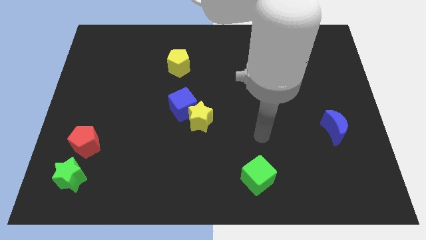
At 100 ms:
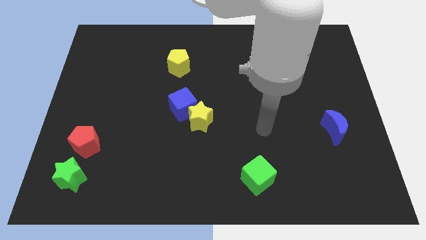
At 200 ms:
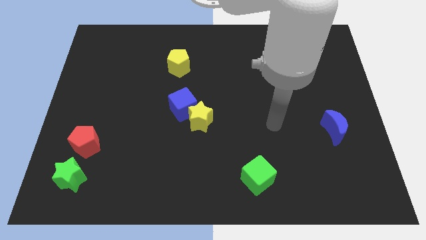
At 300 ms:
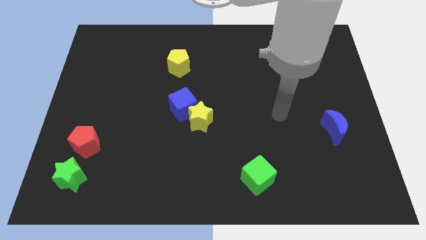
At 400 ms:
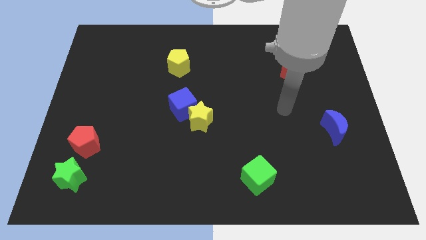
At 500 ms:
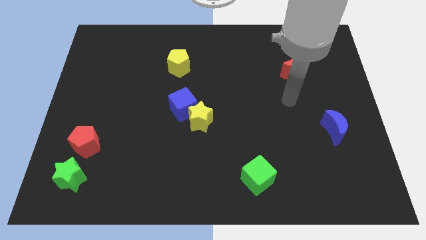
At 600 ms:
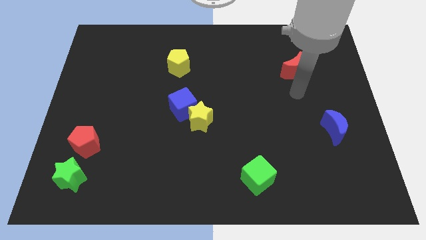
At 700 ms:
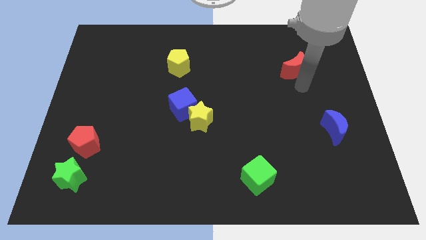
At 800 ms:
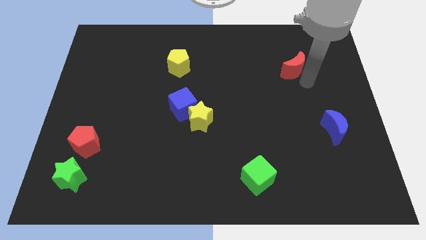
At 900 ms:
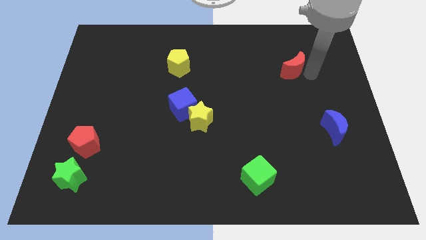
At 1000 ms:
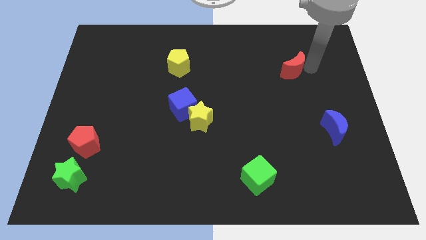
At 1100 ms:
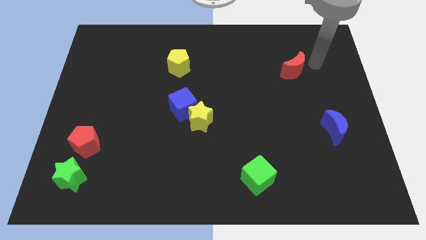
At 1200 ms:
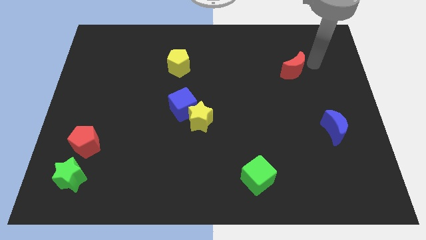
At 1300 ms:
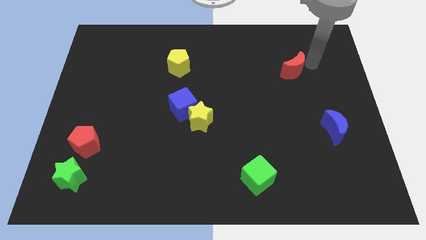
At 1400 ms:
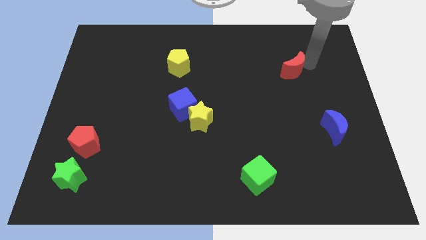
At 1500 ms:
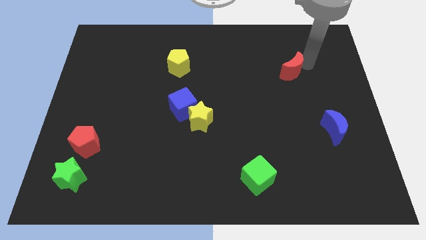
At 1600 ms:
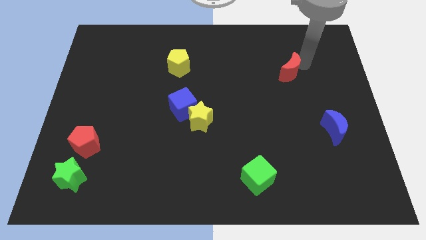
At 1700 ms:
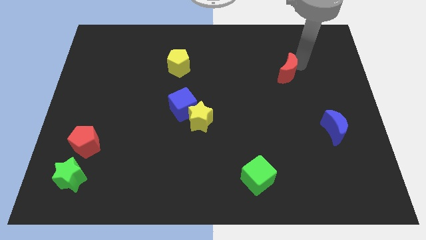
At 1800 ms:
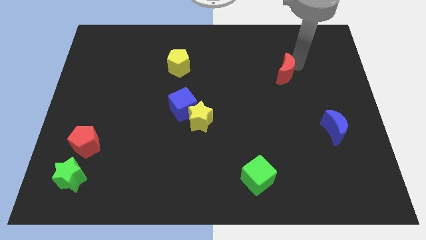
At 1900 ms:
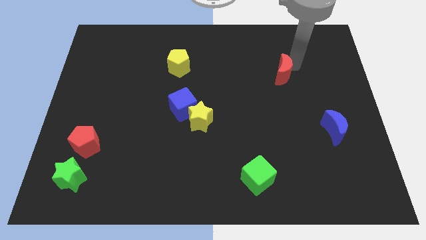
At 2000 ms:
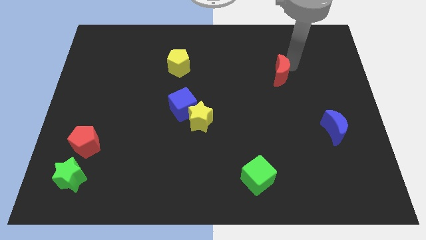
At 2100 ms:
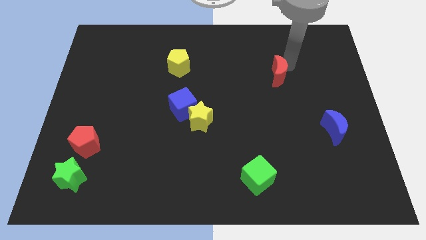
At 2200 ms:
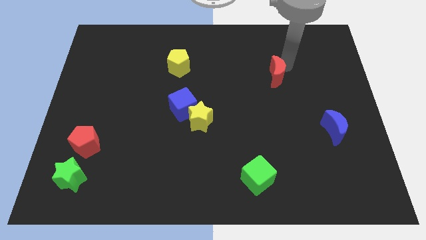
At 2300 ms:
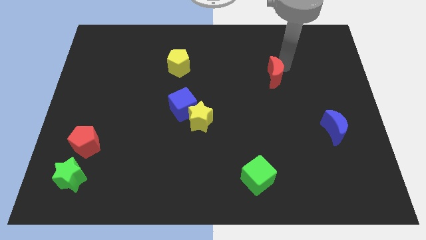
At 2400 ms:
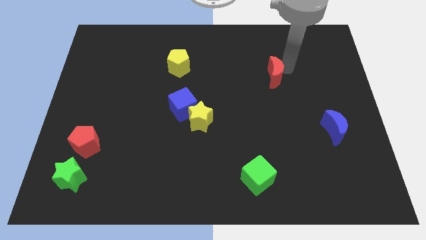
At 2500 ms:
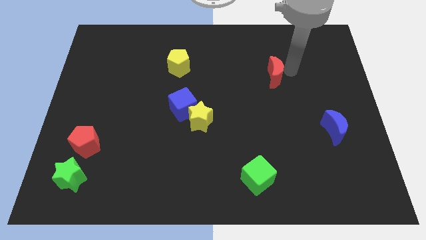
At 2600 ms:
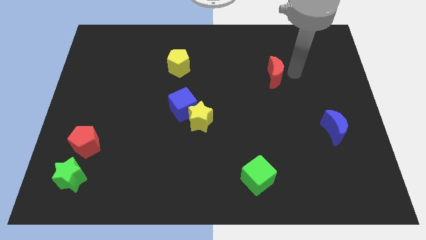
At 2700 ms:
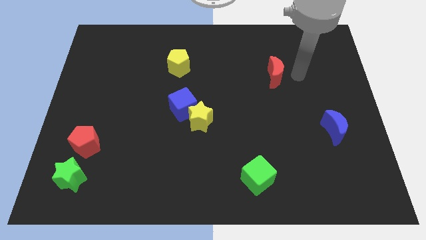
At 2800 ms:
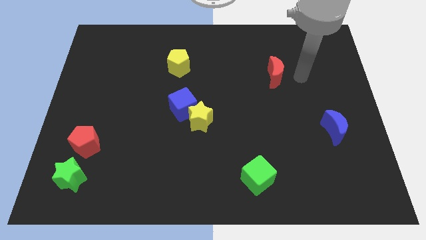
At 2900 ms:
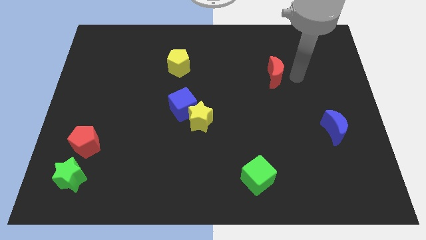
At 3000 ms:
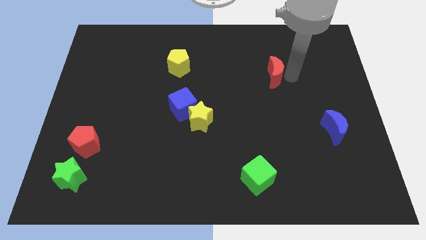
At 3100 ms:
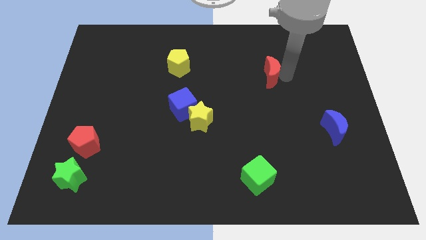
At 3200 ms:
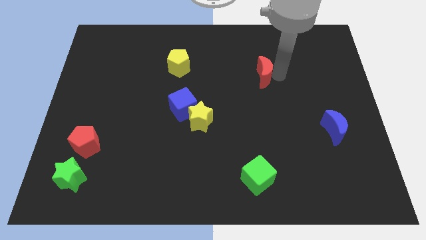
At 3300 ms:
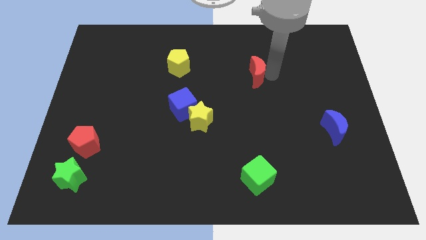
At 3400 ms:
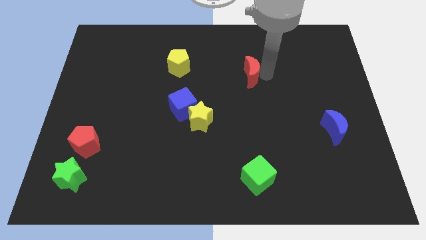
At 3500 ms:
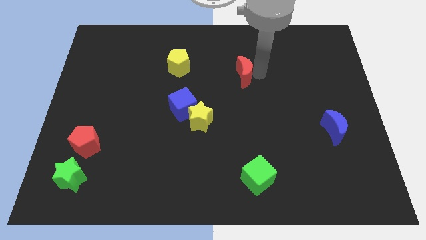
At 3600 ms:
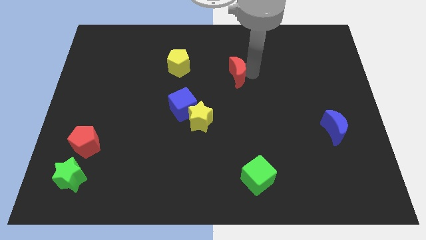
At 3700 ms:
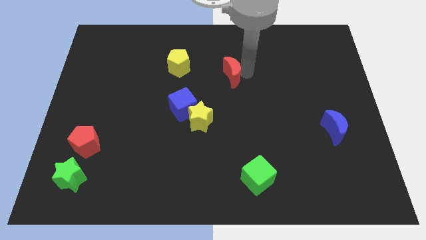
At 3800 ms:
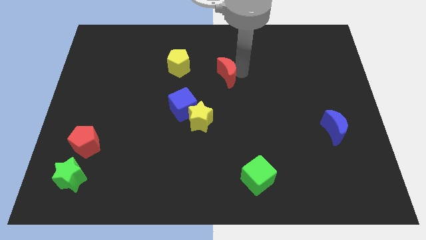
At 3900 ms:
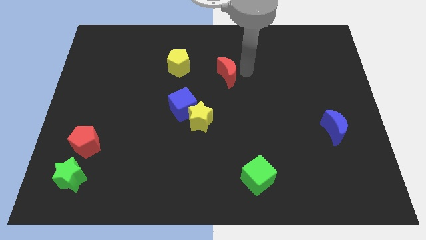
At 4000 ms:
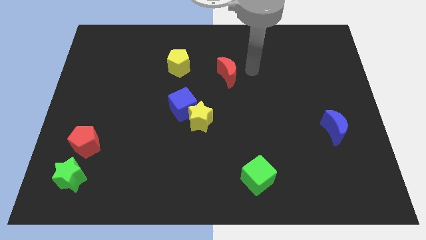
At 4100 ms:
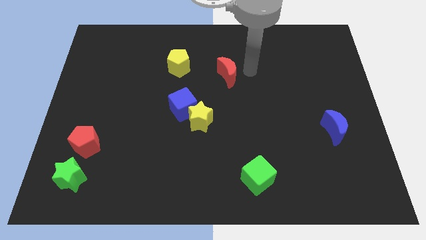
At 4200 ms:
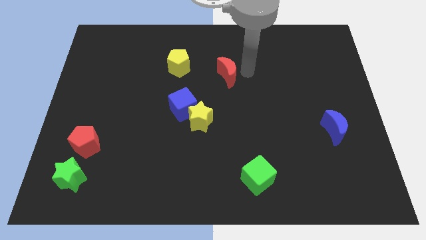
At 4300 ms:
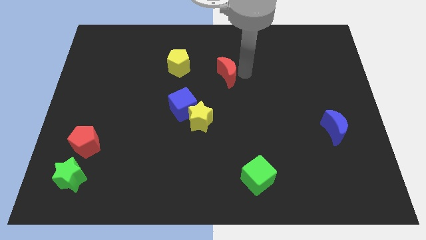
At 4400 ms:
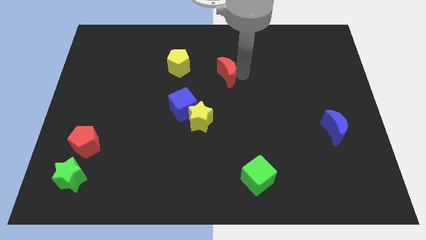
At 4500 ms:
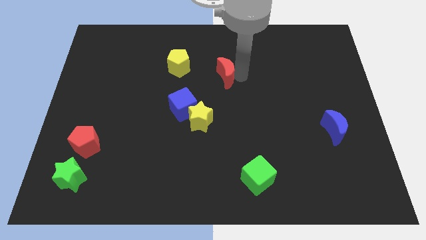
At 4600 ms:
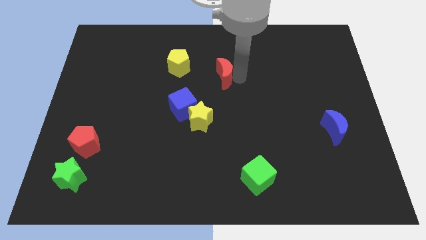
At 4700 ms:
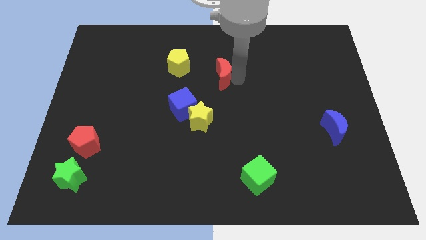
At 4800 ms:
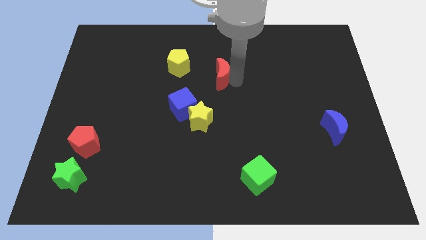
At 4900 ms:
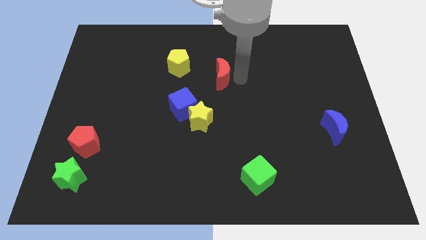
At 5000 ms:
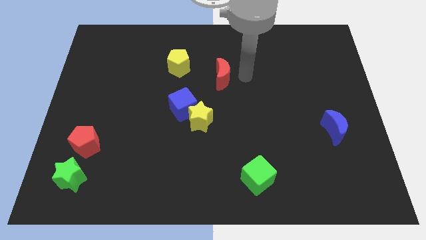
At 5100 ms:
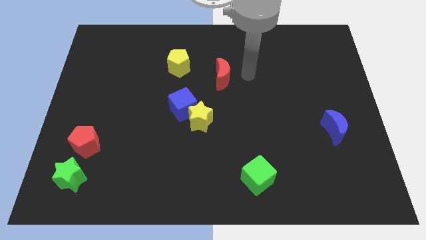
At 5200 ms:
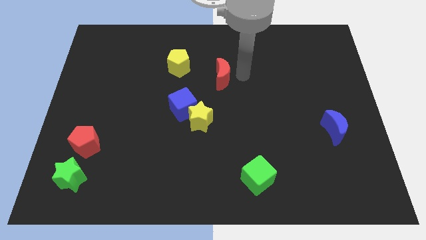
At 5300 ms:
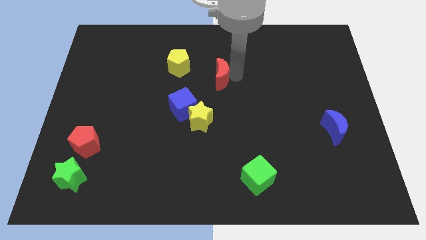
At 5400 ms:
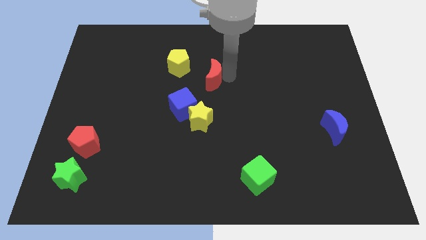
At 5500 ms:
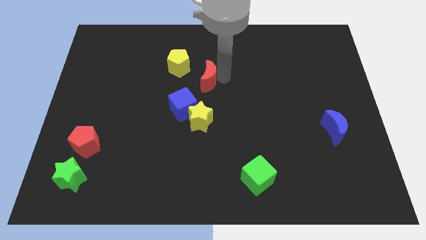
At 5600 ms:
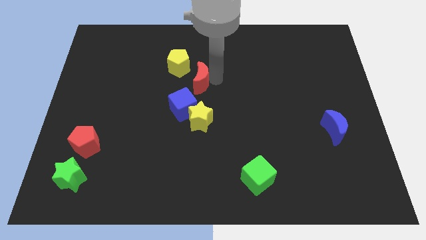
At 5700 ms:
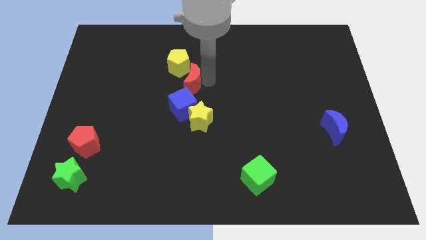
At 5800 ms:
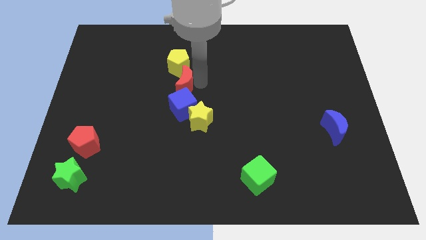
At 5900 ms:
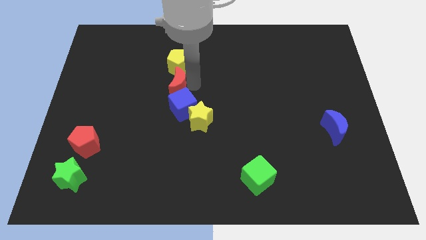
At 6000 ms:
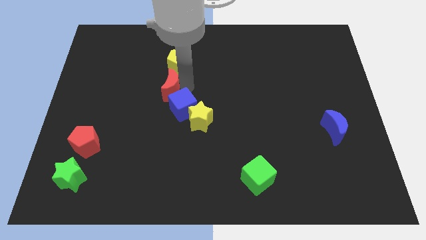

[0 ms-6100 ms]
move the red moon diagonally down and to the left of the yellow pentagon

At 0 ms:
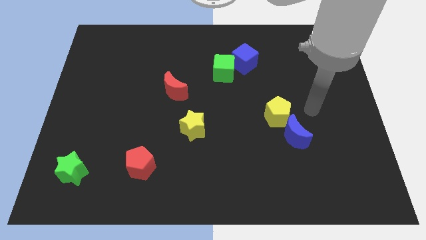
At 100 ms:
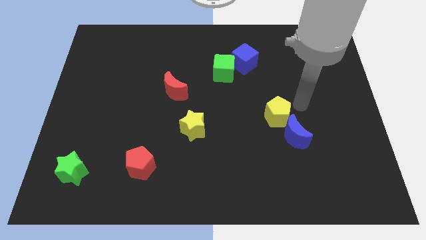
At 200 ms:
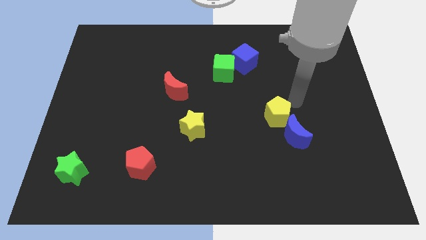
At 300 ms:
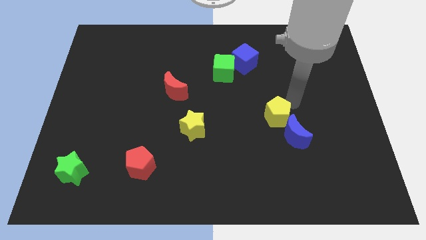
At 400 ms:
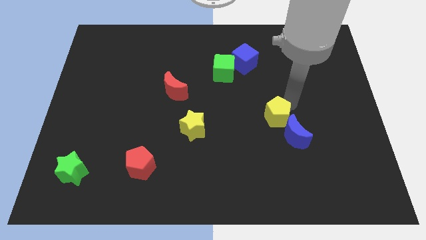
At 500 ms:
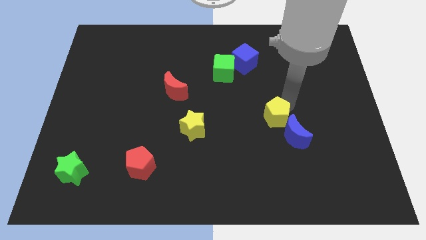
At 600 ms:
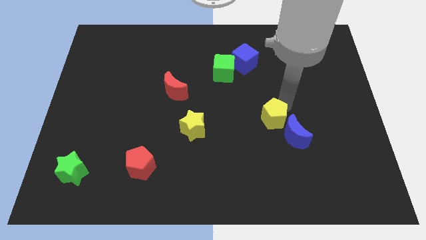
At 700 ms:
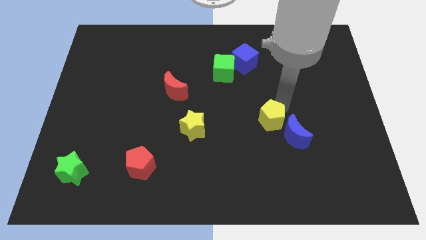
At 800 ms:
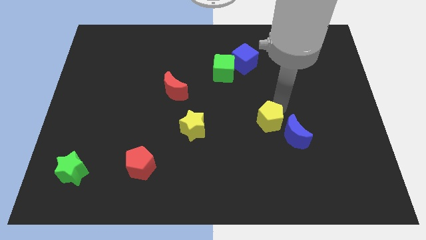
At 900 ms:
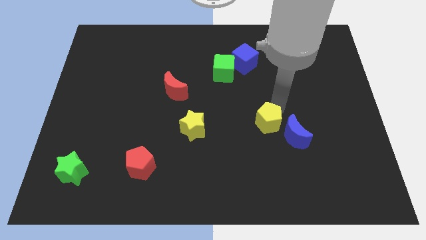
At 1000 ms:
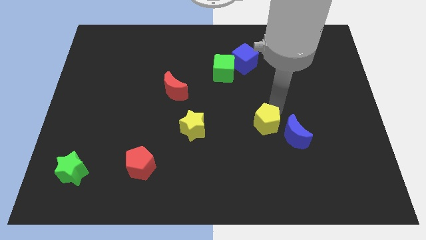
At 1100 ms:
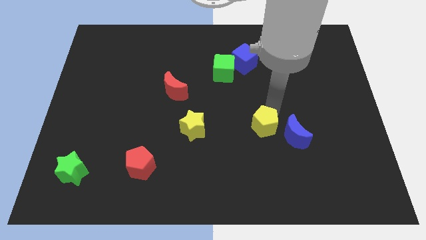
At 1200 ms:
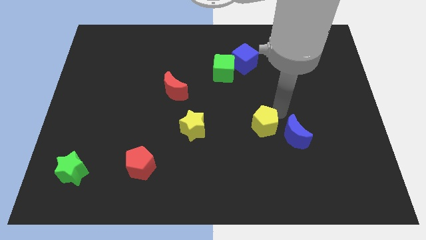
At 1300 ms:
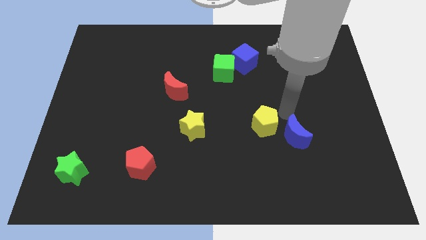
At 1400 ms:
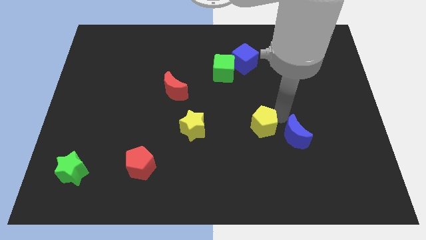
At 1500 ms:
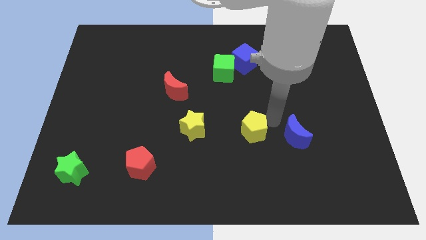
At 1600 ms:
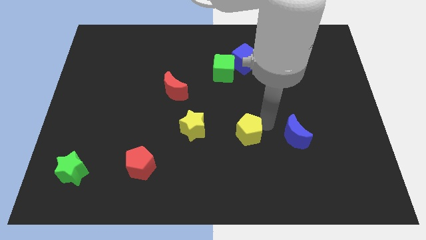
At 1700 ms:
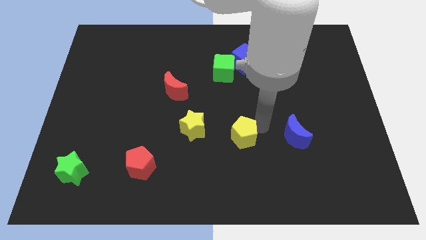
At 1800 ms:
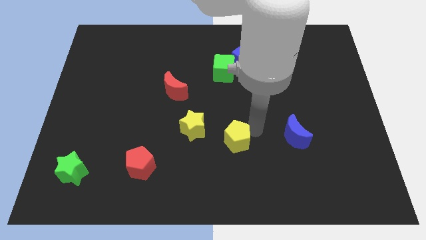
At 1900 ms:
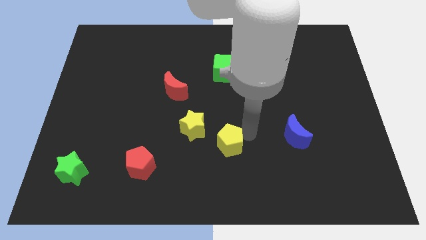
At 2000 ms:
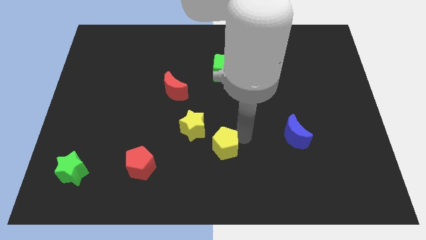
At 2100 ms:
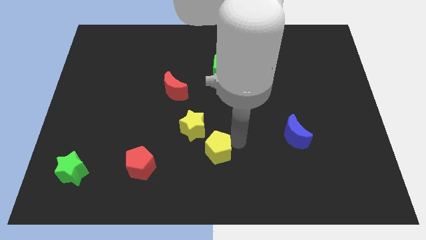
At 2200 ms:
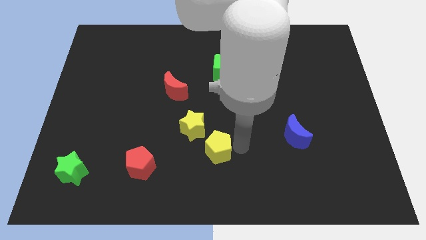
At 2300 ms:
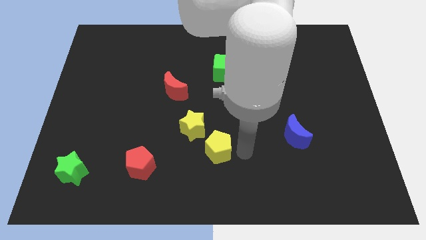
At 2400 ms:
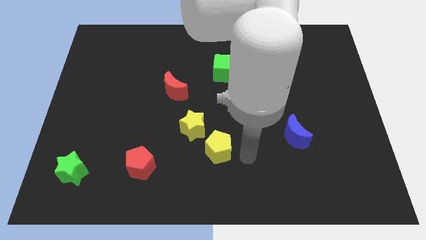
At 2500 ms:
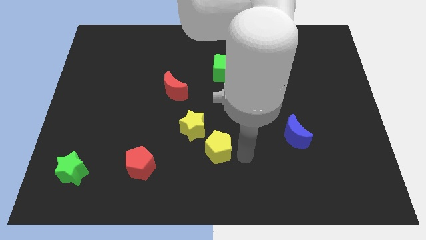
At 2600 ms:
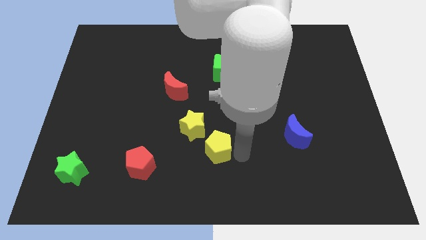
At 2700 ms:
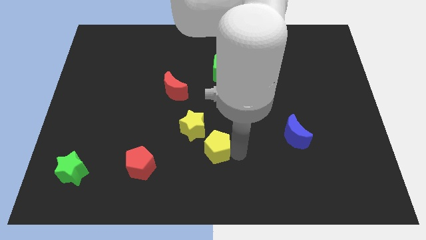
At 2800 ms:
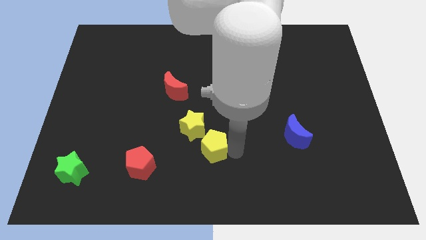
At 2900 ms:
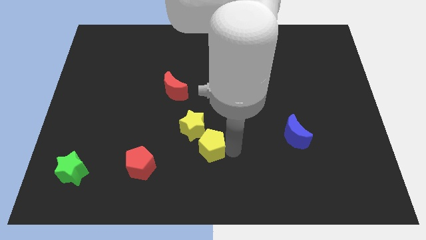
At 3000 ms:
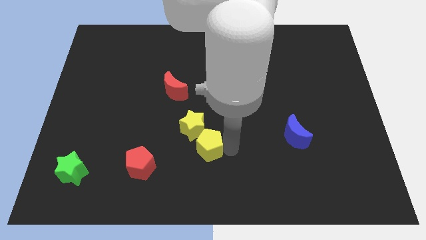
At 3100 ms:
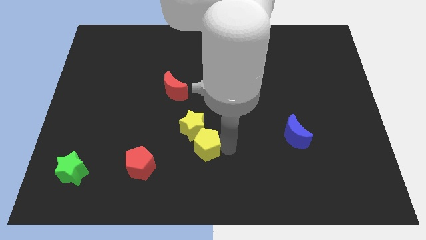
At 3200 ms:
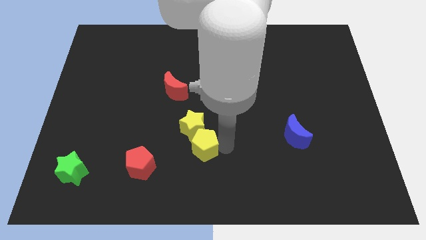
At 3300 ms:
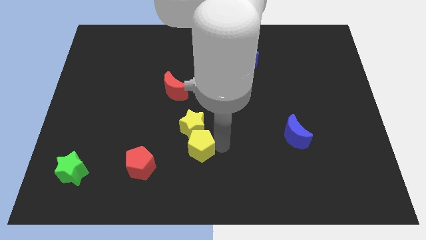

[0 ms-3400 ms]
slide the yellow pentagon diagonally down and to the left of the yellow star
